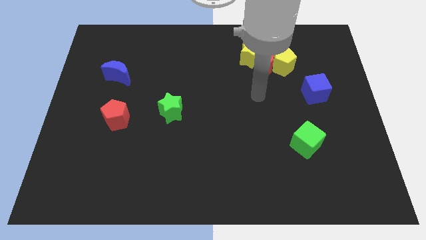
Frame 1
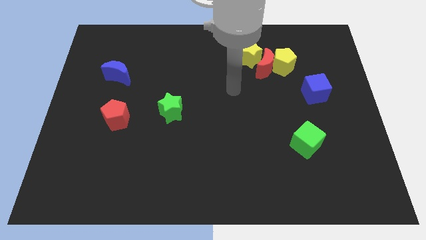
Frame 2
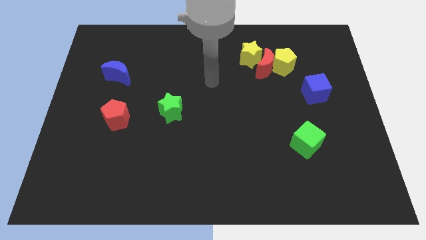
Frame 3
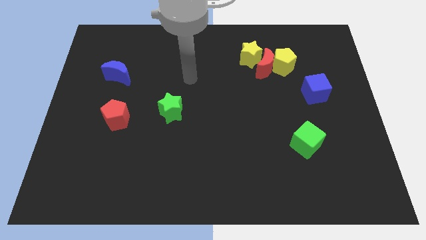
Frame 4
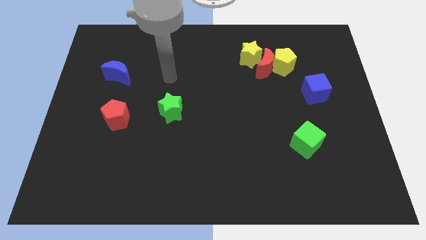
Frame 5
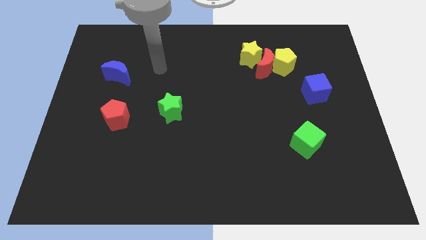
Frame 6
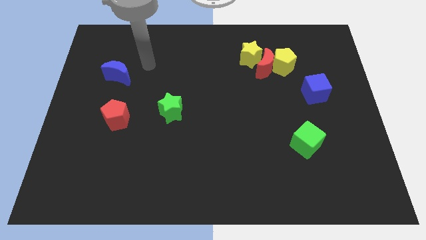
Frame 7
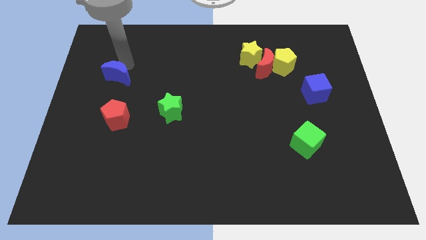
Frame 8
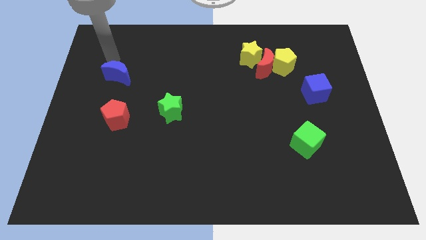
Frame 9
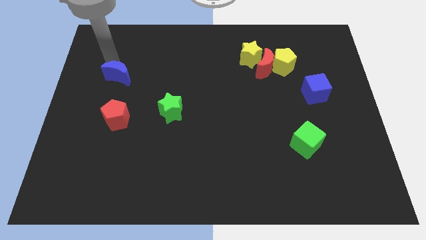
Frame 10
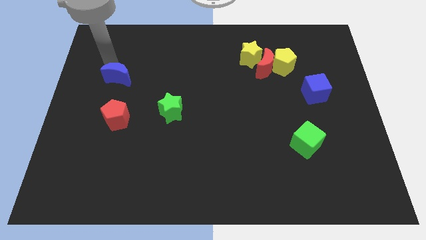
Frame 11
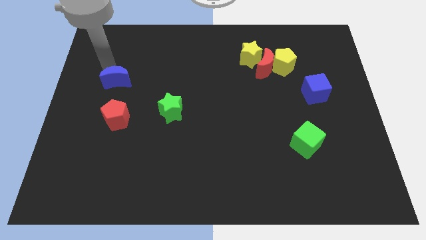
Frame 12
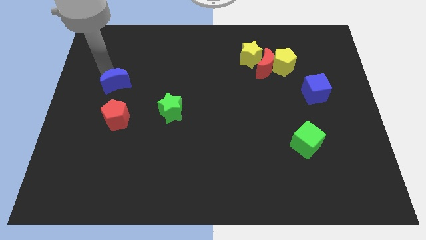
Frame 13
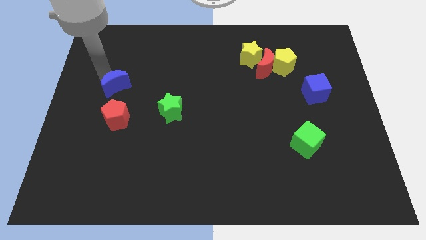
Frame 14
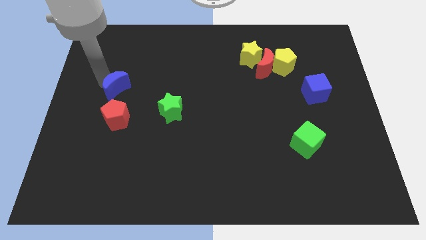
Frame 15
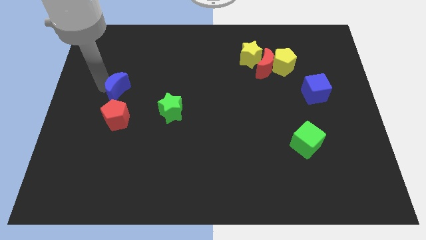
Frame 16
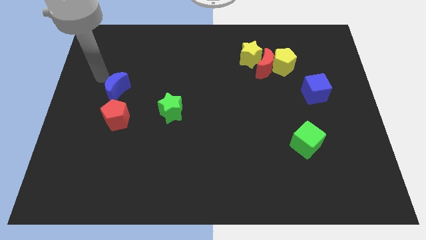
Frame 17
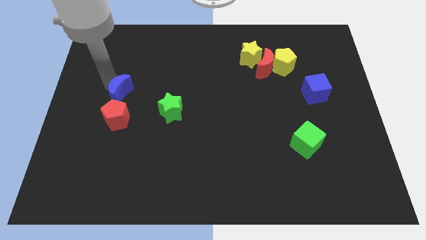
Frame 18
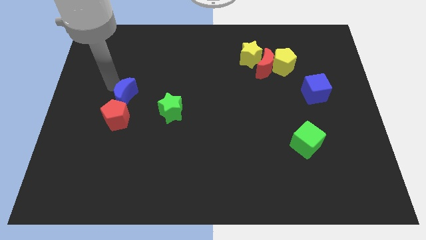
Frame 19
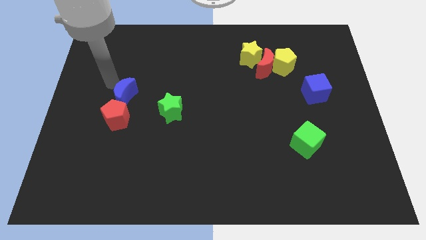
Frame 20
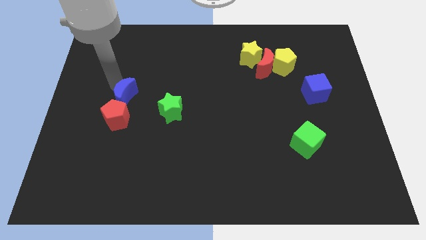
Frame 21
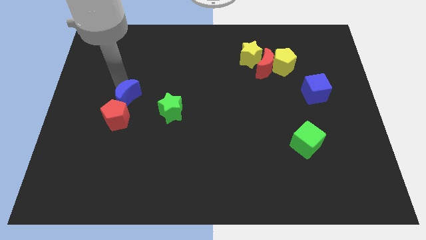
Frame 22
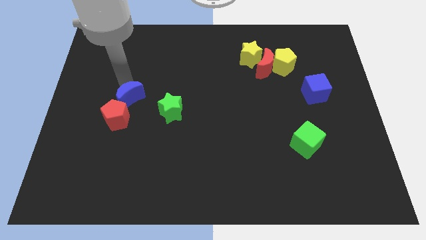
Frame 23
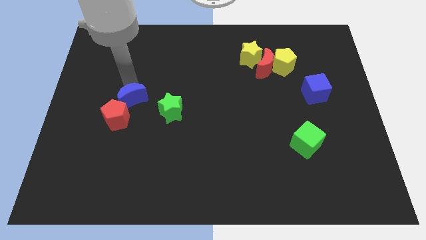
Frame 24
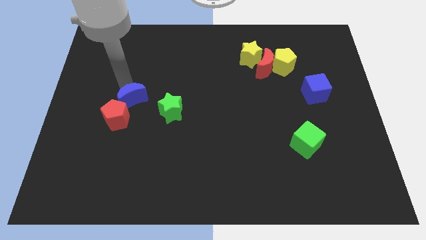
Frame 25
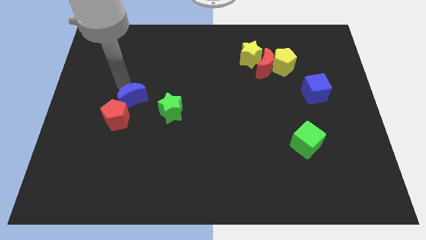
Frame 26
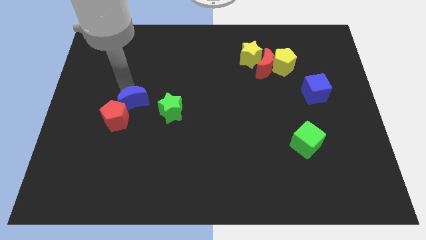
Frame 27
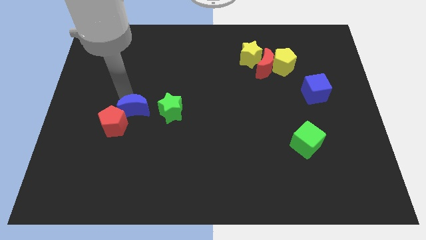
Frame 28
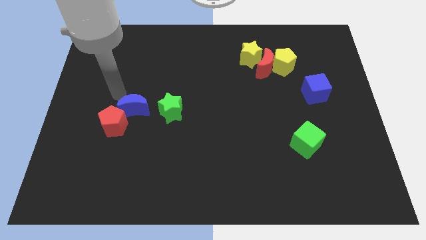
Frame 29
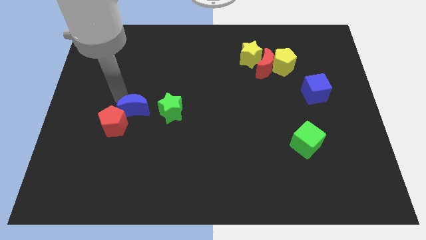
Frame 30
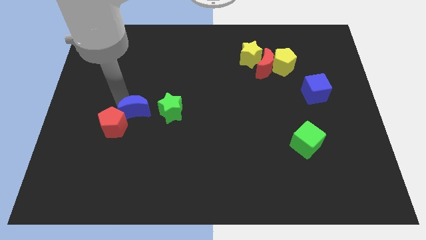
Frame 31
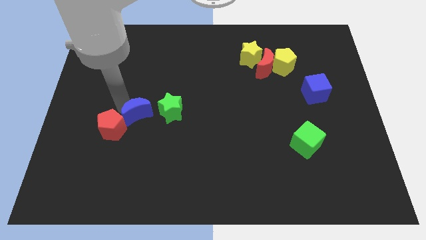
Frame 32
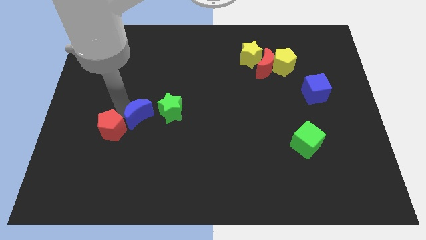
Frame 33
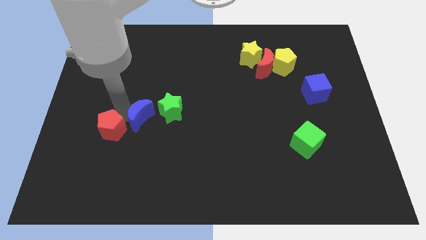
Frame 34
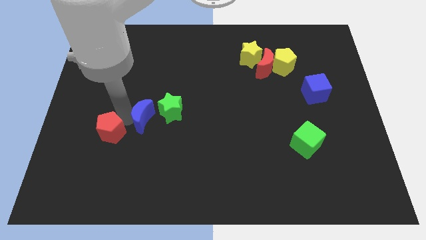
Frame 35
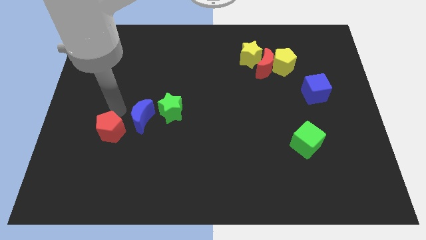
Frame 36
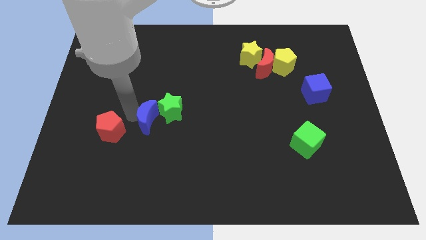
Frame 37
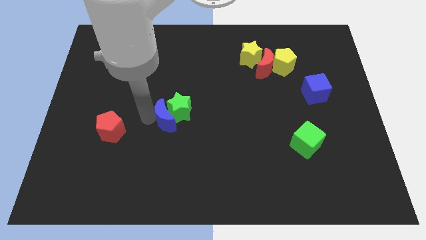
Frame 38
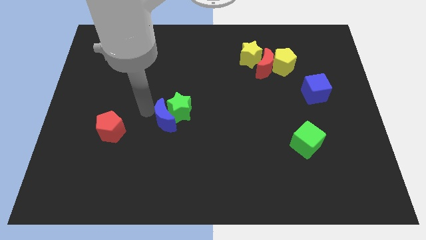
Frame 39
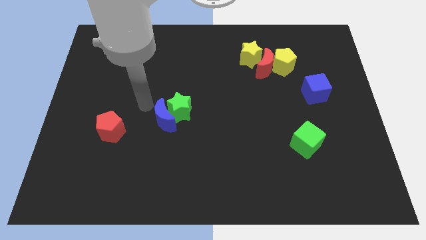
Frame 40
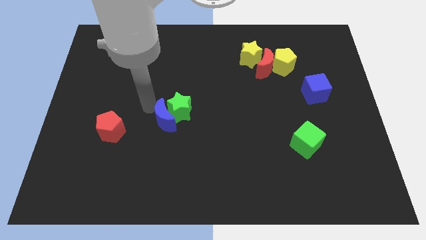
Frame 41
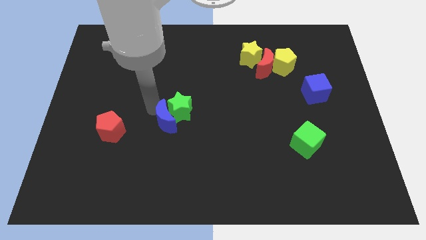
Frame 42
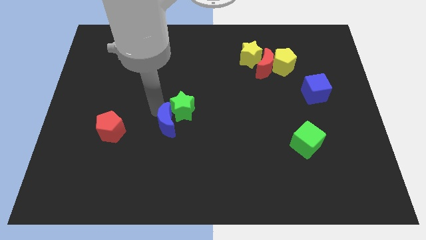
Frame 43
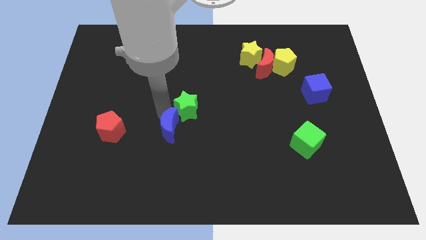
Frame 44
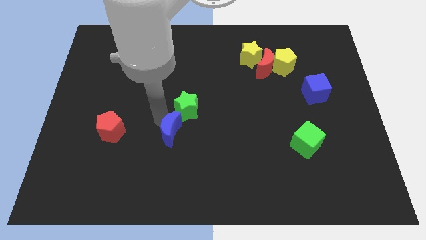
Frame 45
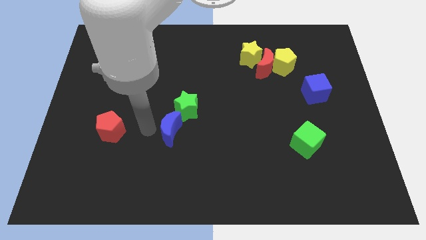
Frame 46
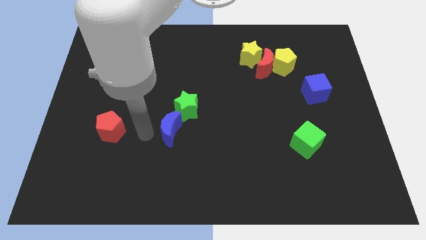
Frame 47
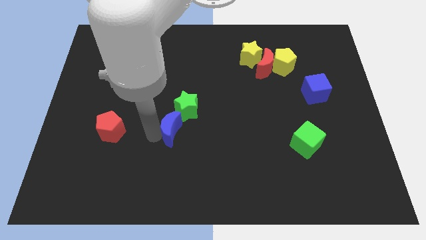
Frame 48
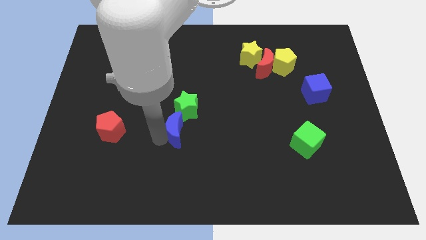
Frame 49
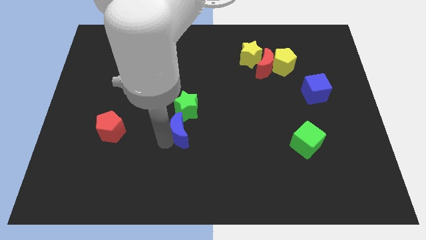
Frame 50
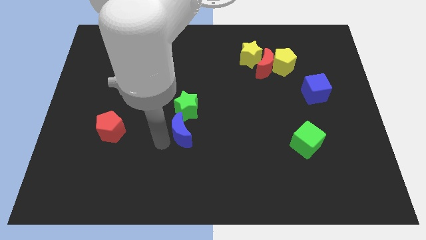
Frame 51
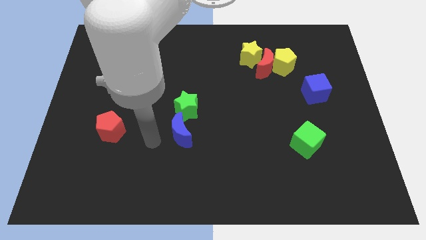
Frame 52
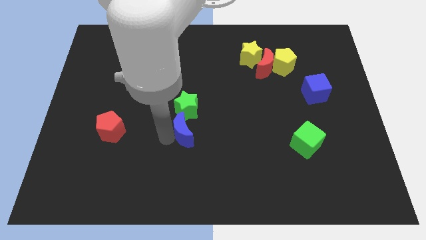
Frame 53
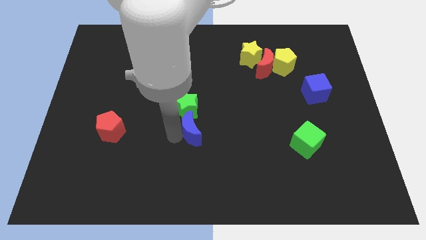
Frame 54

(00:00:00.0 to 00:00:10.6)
move the blue moon to the bottom right side of the green star

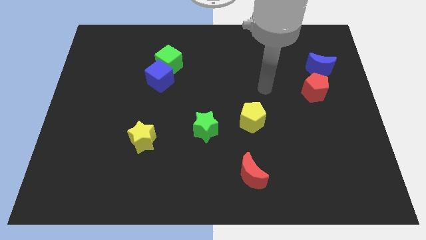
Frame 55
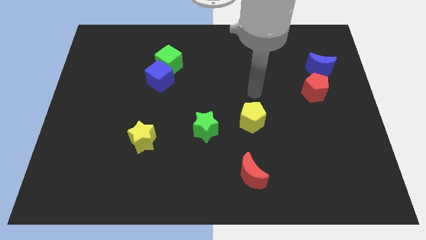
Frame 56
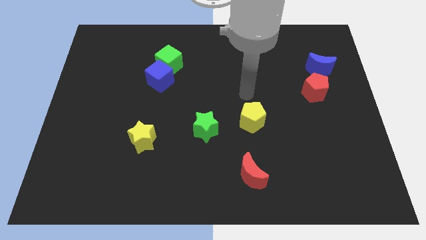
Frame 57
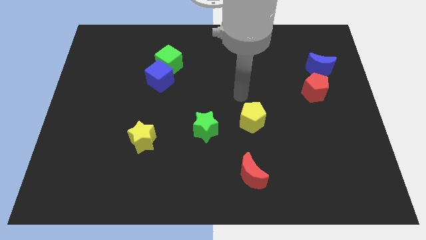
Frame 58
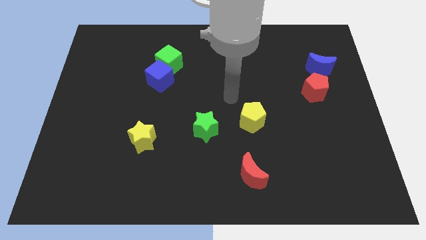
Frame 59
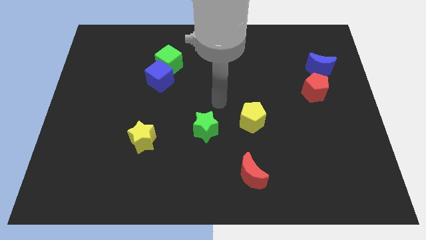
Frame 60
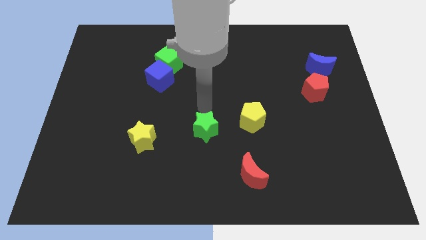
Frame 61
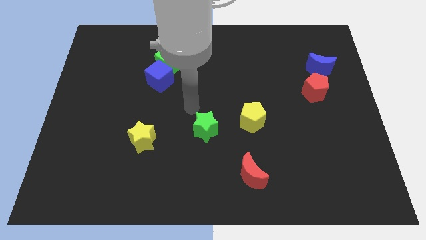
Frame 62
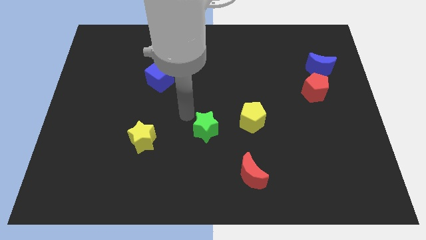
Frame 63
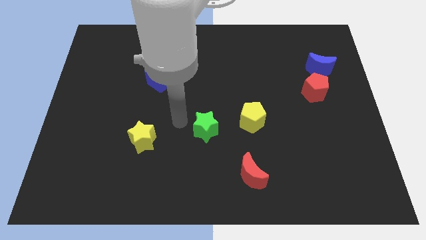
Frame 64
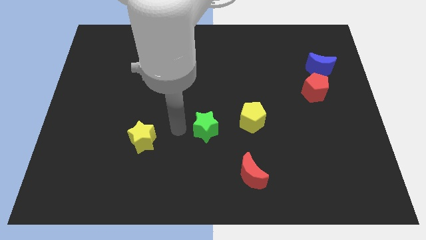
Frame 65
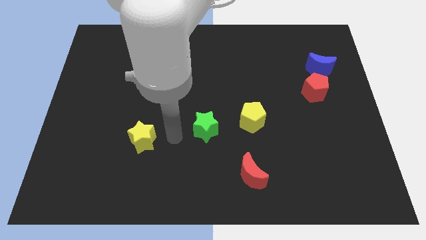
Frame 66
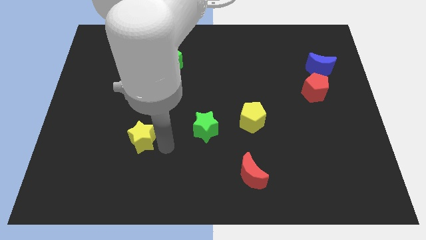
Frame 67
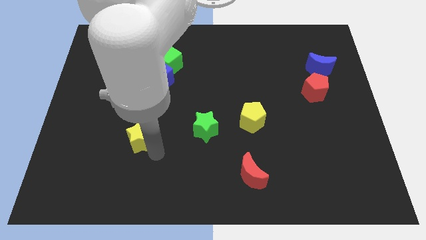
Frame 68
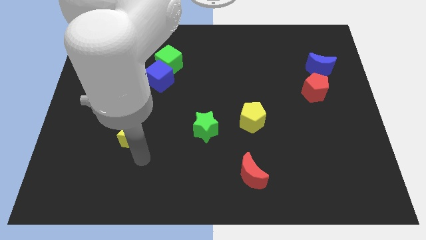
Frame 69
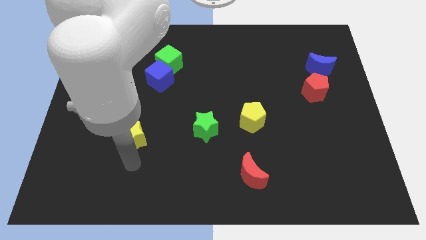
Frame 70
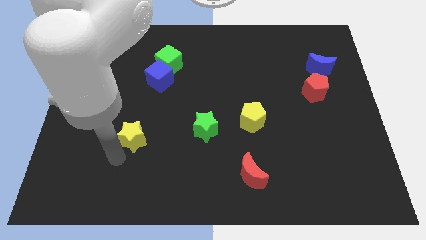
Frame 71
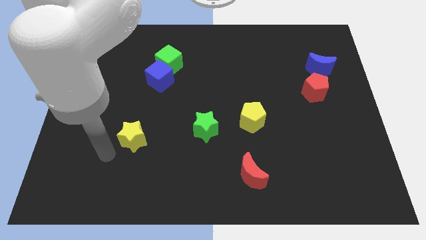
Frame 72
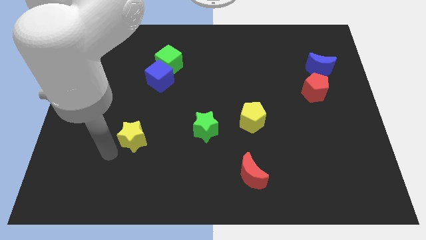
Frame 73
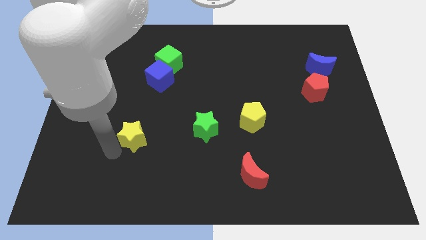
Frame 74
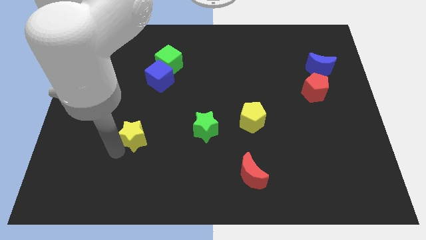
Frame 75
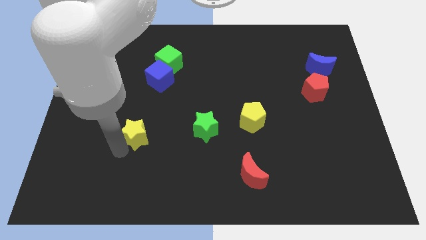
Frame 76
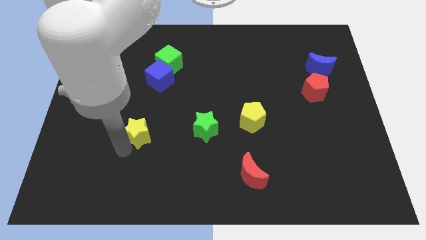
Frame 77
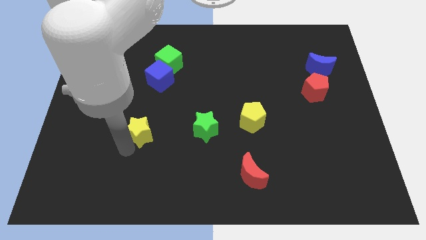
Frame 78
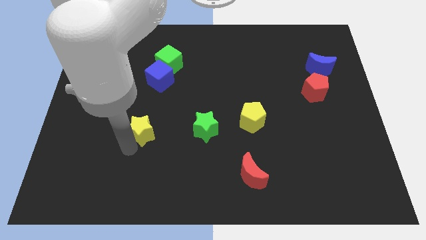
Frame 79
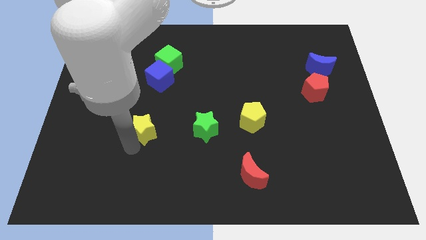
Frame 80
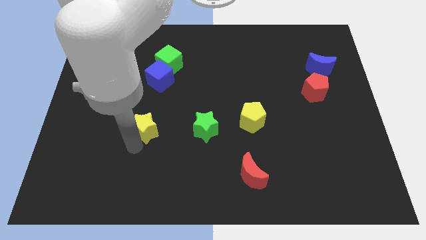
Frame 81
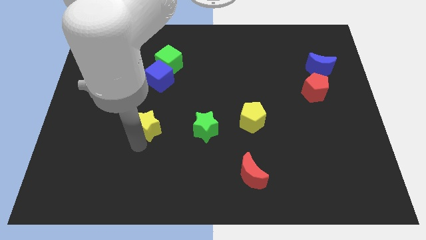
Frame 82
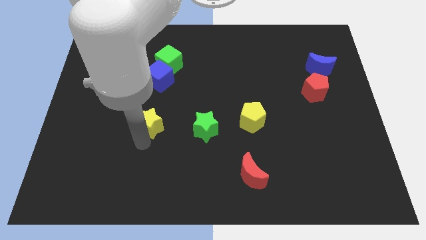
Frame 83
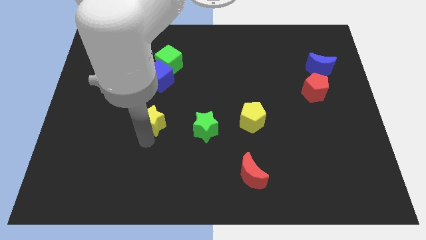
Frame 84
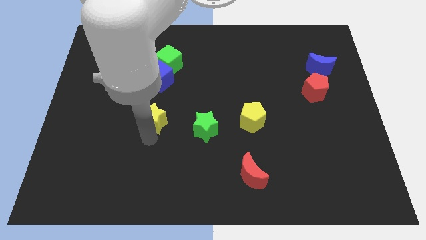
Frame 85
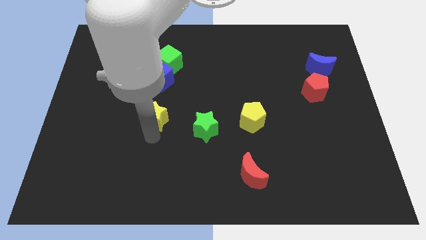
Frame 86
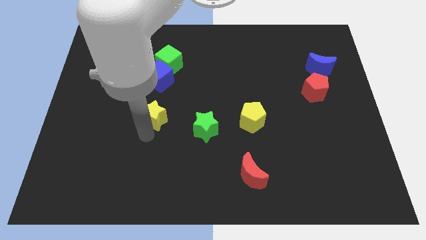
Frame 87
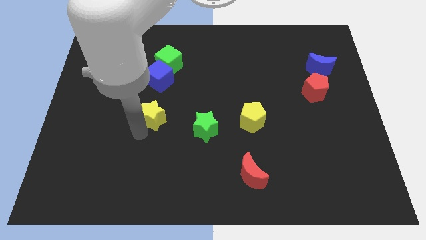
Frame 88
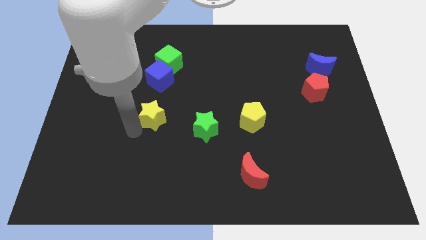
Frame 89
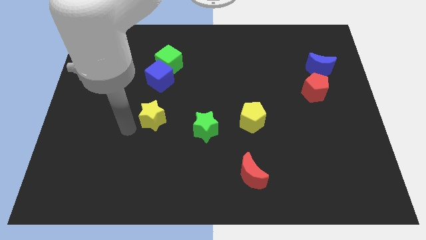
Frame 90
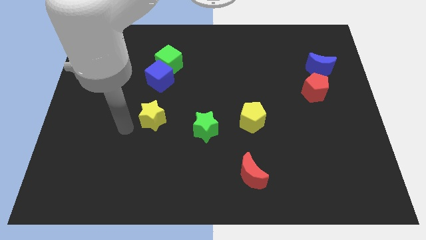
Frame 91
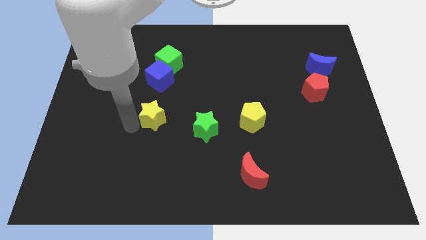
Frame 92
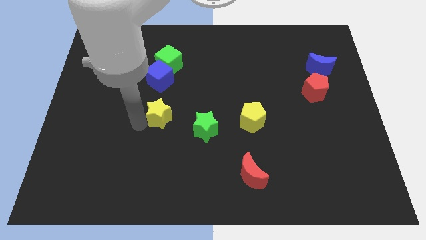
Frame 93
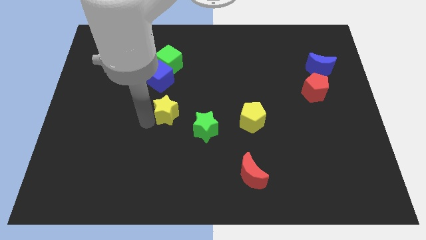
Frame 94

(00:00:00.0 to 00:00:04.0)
move the yellow star to the top left side of the green star
